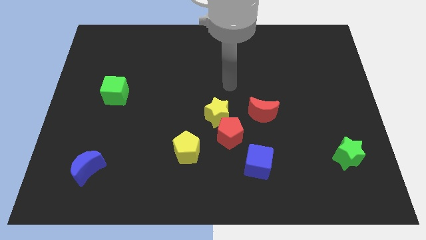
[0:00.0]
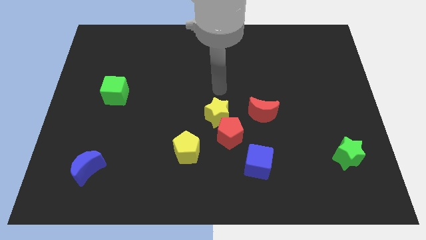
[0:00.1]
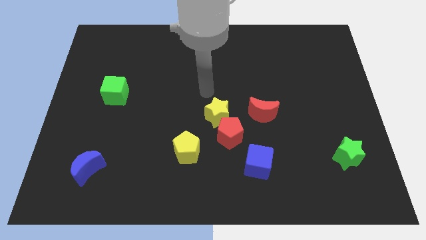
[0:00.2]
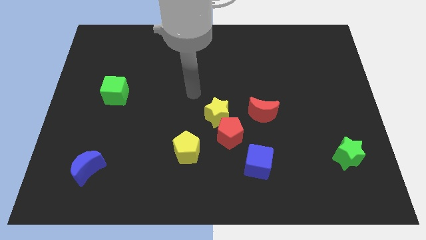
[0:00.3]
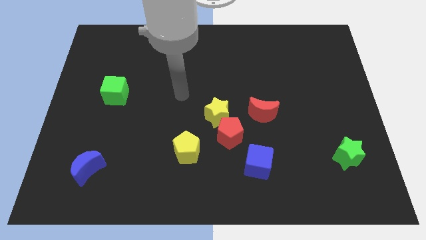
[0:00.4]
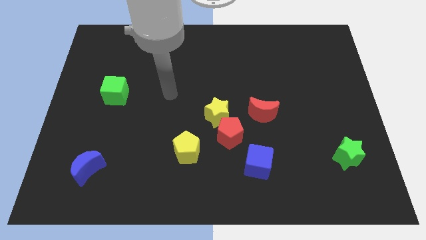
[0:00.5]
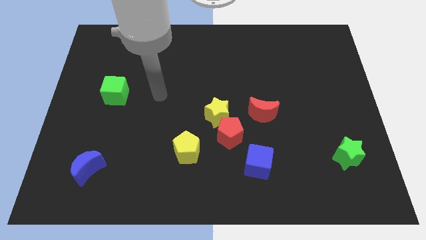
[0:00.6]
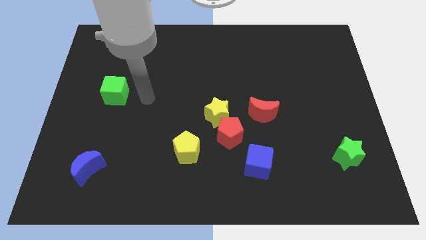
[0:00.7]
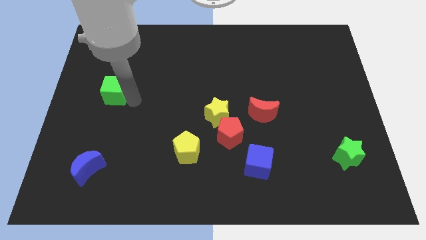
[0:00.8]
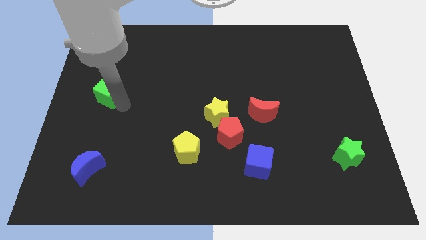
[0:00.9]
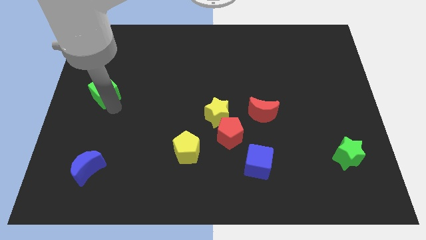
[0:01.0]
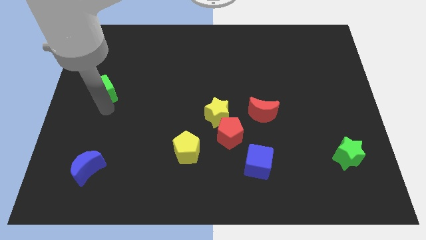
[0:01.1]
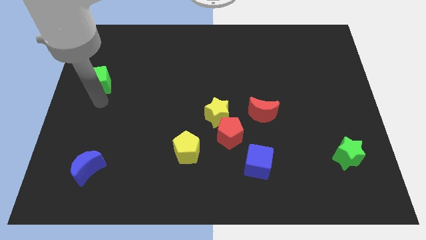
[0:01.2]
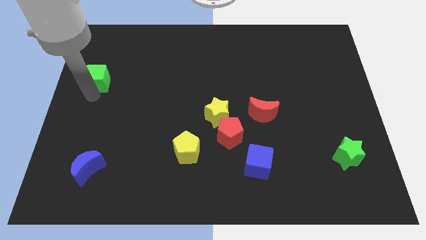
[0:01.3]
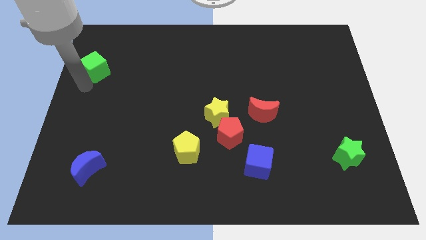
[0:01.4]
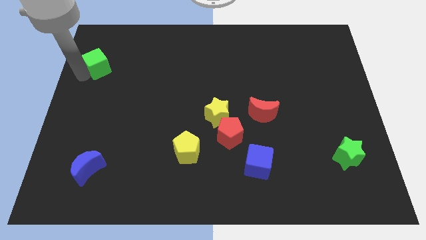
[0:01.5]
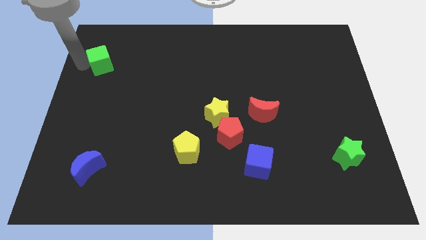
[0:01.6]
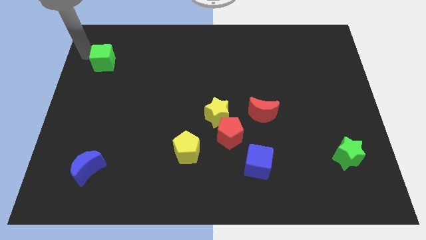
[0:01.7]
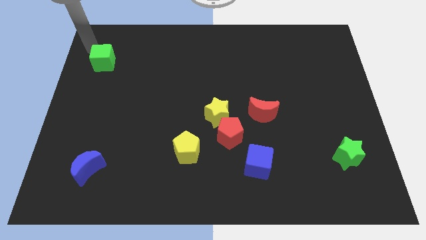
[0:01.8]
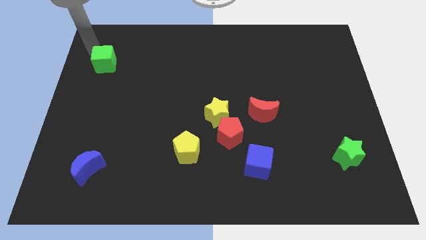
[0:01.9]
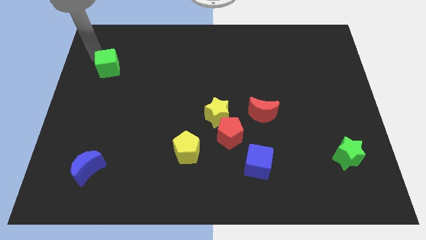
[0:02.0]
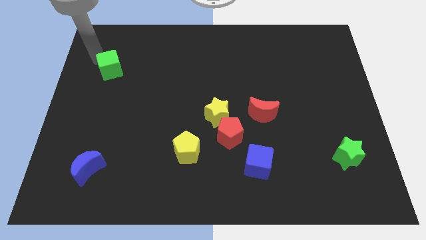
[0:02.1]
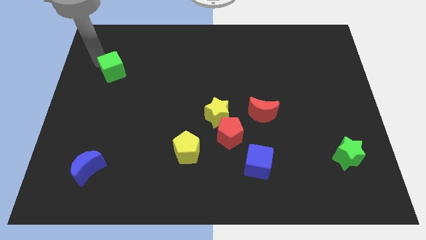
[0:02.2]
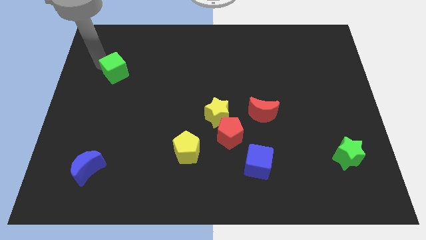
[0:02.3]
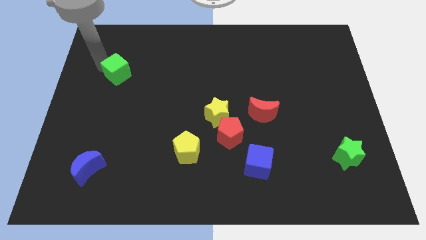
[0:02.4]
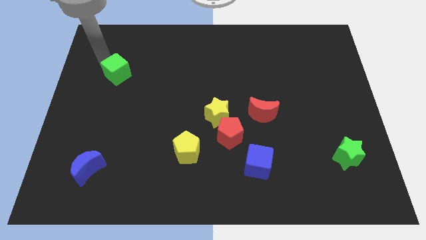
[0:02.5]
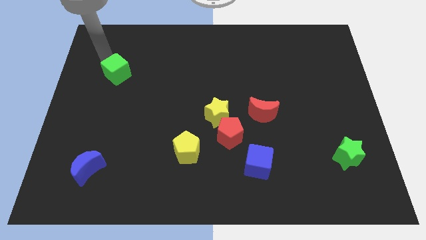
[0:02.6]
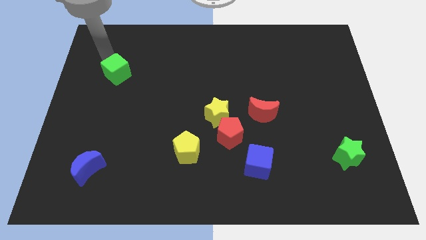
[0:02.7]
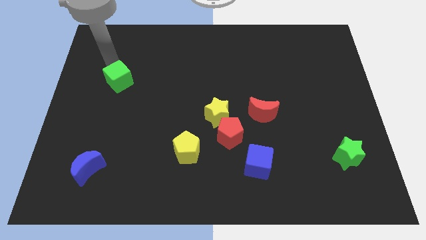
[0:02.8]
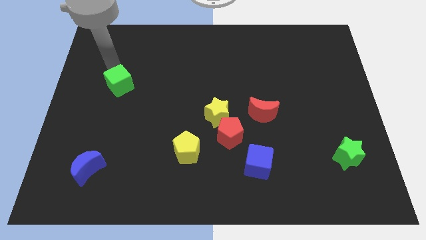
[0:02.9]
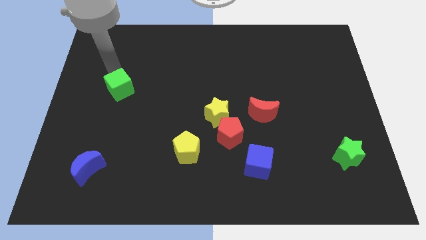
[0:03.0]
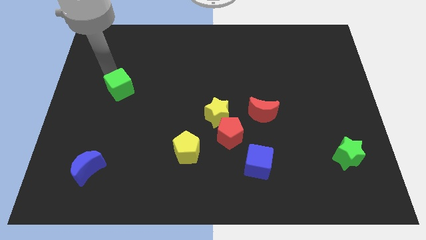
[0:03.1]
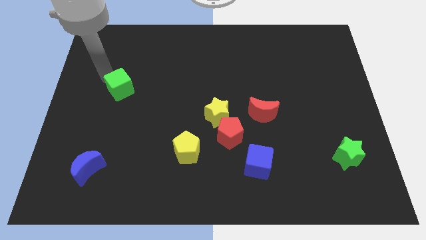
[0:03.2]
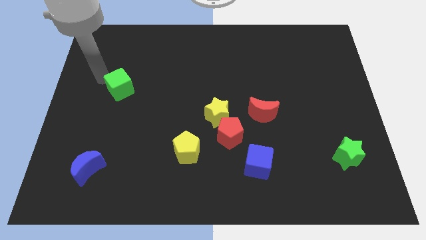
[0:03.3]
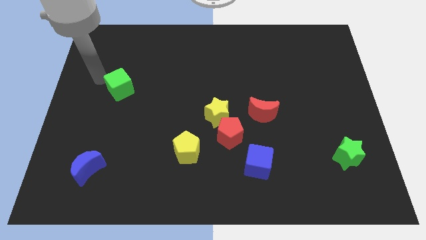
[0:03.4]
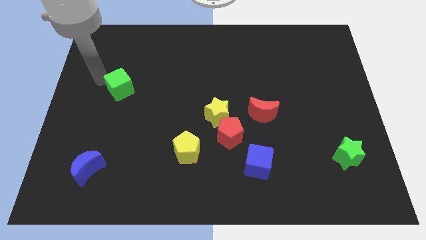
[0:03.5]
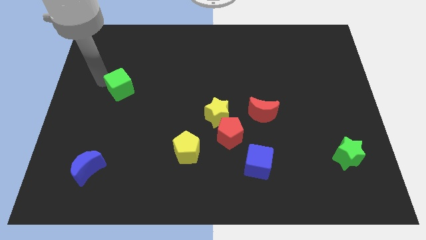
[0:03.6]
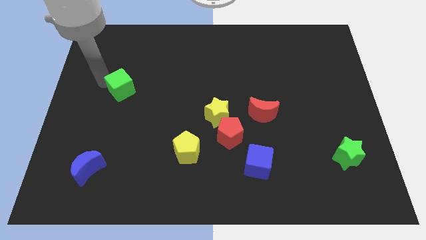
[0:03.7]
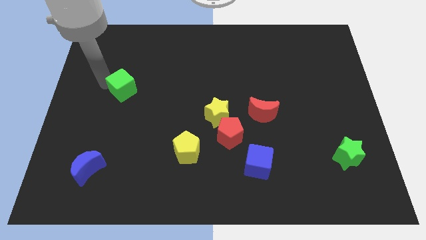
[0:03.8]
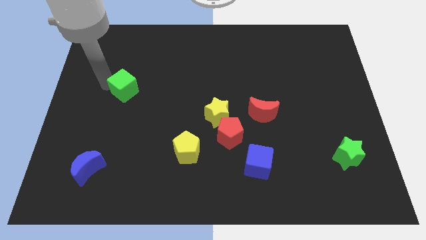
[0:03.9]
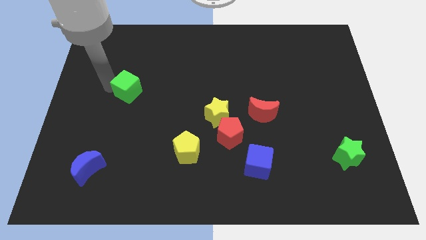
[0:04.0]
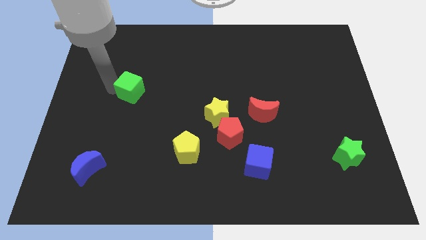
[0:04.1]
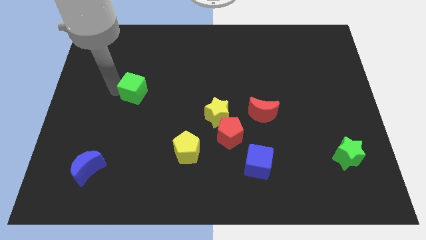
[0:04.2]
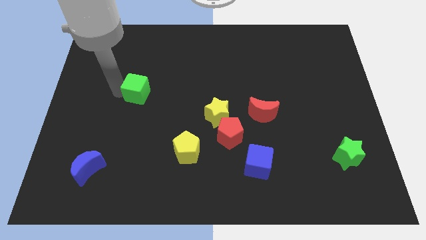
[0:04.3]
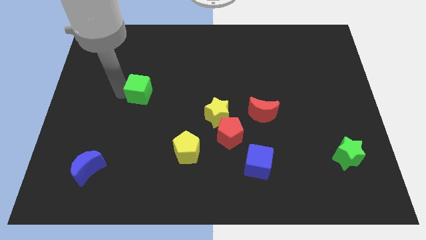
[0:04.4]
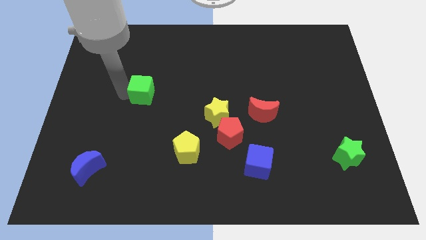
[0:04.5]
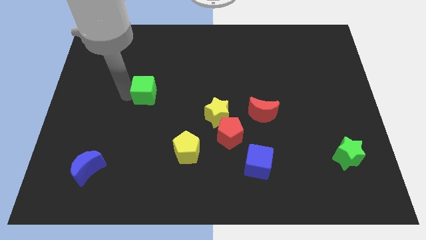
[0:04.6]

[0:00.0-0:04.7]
push the green cube to the right a little

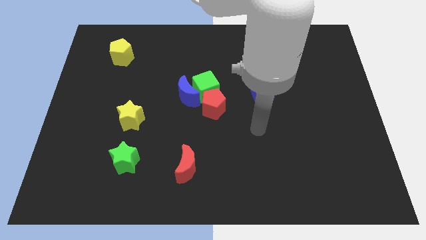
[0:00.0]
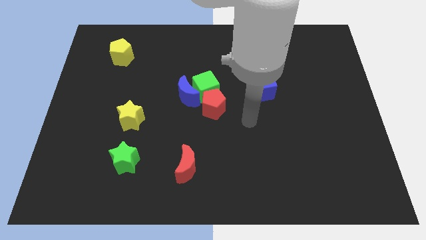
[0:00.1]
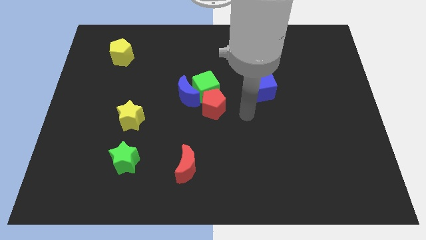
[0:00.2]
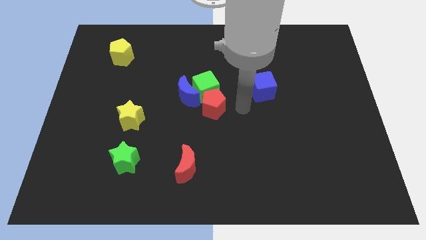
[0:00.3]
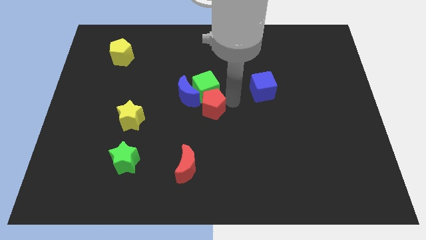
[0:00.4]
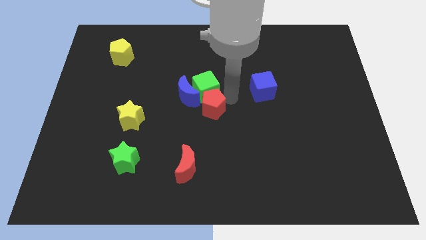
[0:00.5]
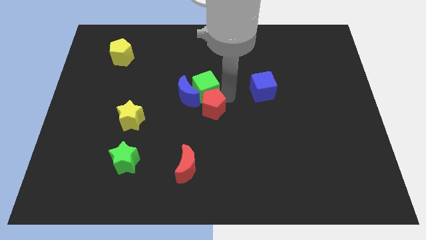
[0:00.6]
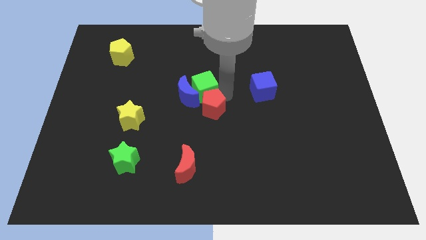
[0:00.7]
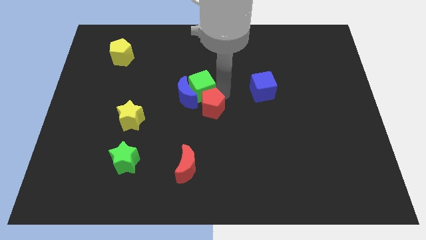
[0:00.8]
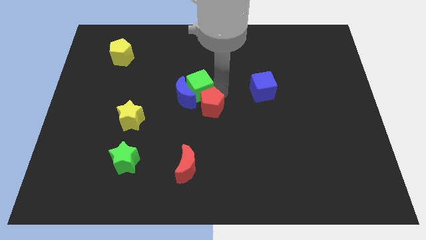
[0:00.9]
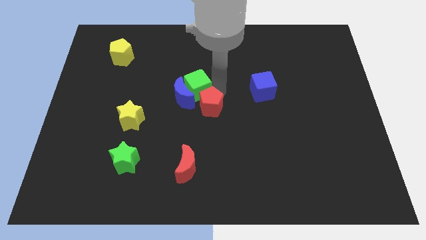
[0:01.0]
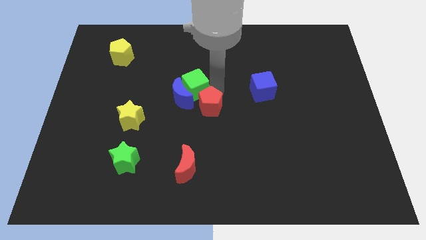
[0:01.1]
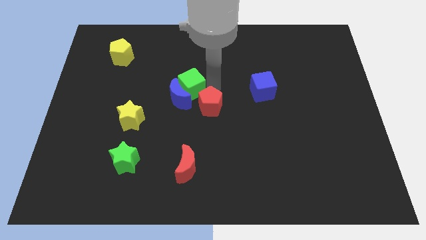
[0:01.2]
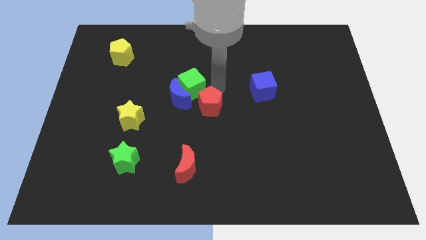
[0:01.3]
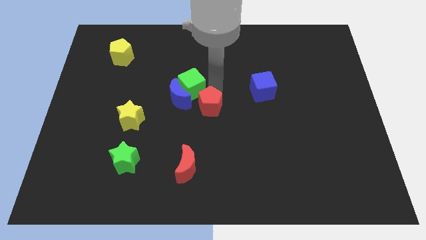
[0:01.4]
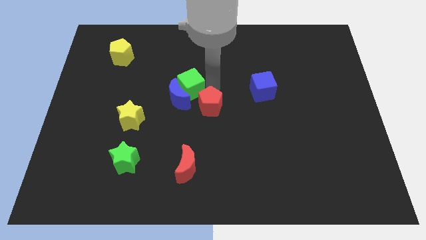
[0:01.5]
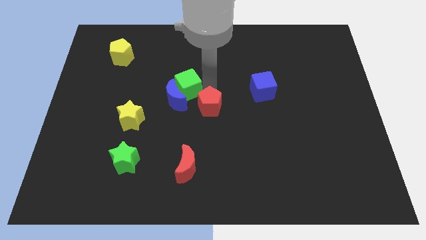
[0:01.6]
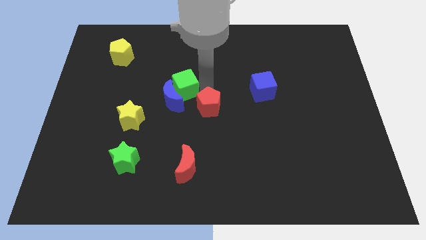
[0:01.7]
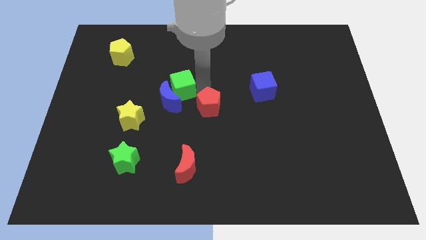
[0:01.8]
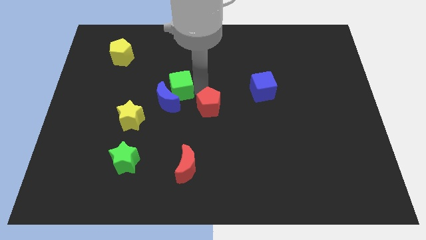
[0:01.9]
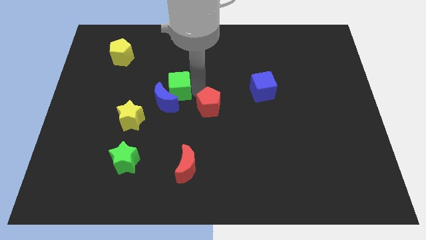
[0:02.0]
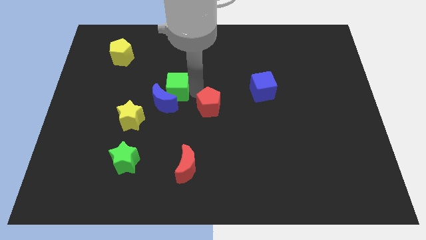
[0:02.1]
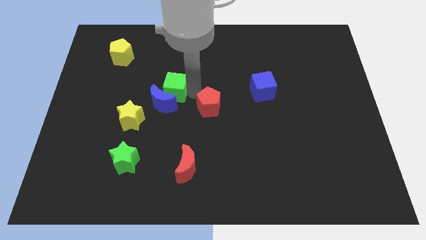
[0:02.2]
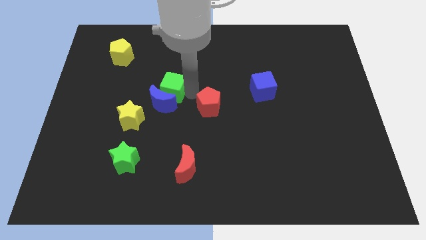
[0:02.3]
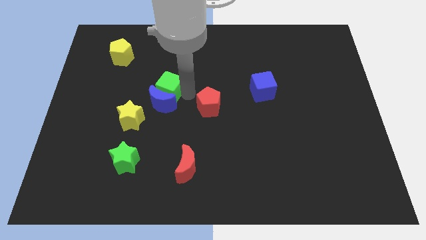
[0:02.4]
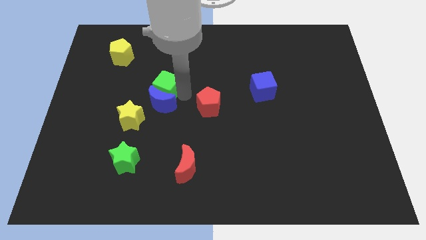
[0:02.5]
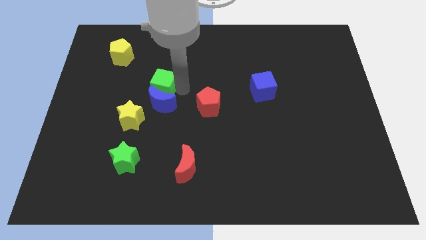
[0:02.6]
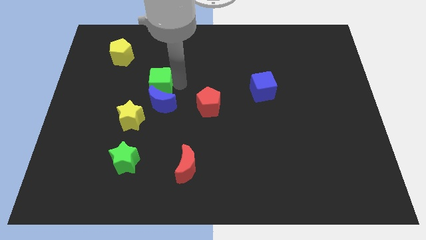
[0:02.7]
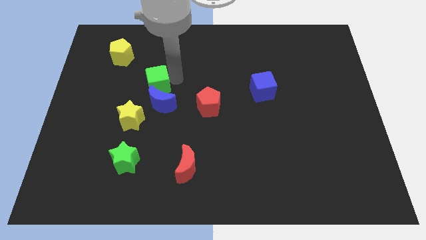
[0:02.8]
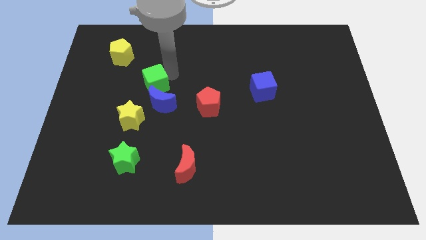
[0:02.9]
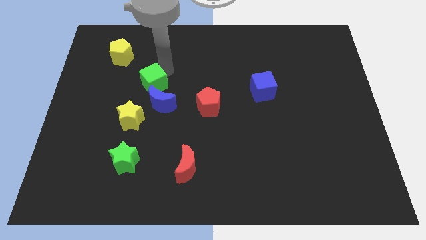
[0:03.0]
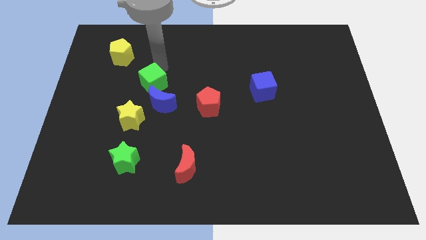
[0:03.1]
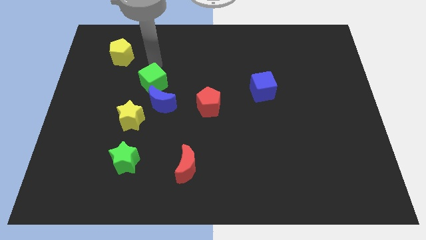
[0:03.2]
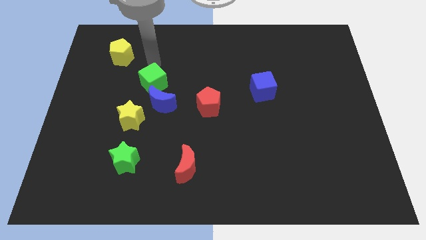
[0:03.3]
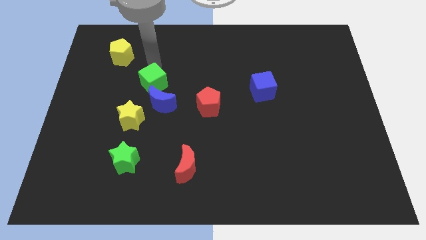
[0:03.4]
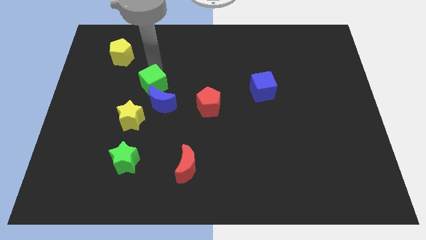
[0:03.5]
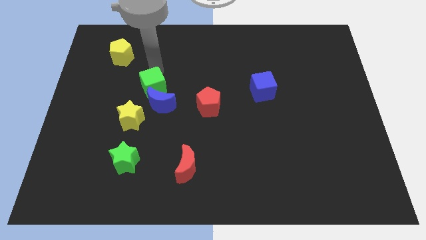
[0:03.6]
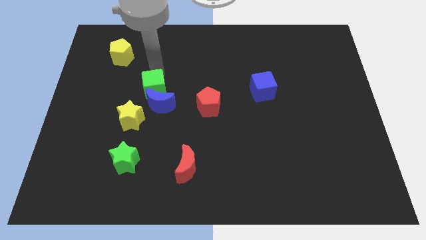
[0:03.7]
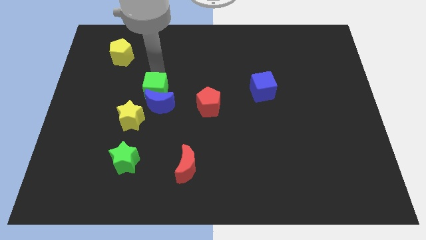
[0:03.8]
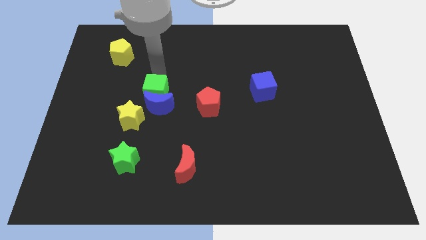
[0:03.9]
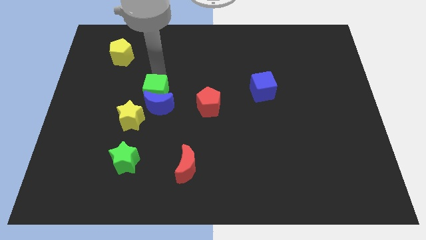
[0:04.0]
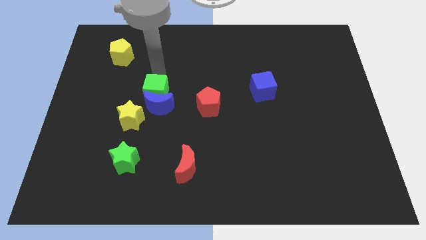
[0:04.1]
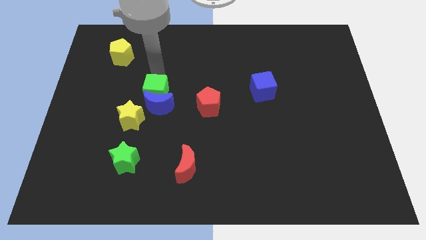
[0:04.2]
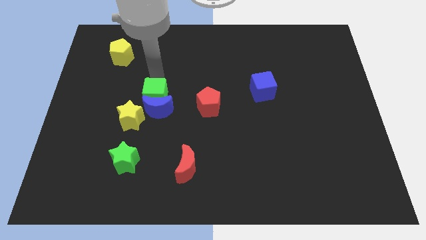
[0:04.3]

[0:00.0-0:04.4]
slightly slide the green cube downwards and then left
